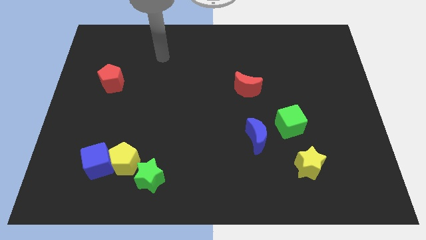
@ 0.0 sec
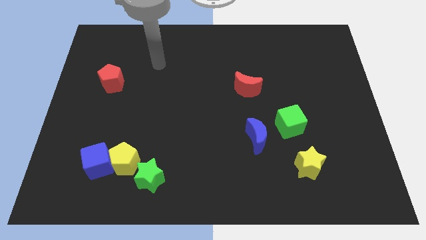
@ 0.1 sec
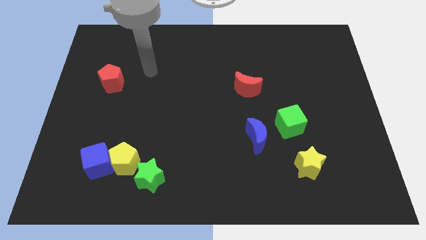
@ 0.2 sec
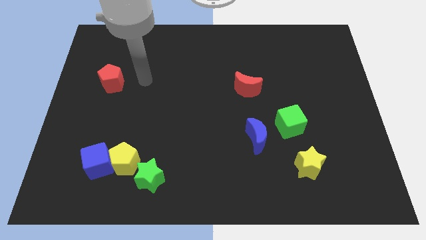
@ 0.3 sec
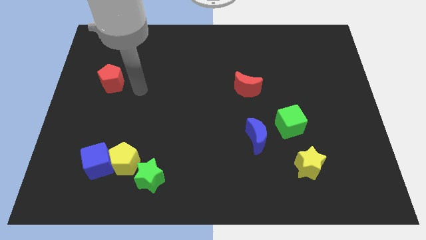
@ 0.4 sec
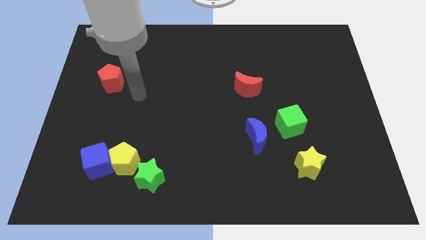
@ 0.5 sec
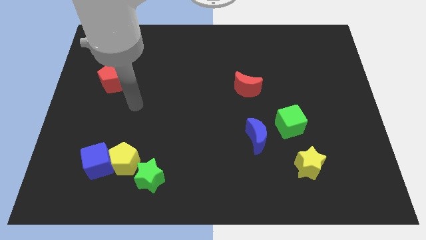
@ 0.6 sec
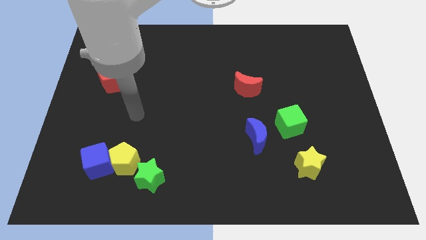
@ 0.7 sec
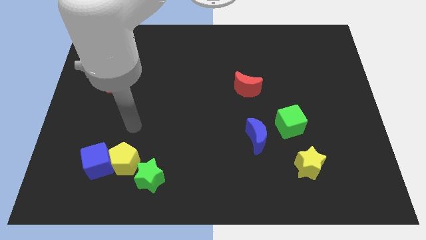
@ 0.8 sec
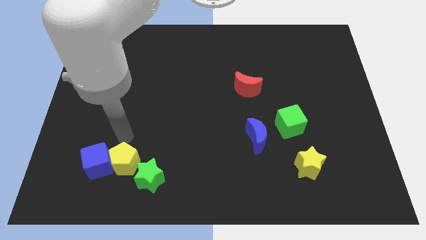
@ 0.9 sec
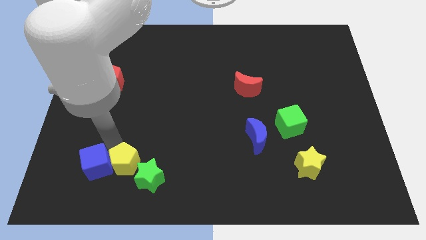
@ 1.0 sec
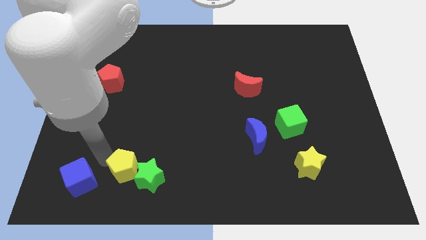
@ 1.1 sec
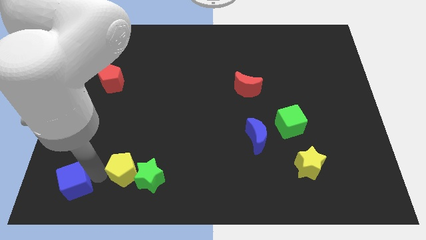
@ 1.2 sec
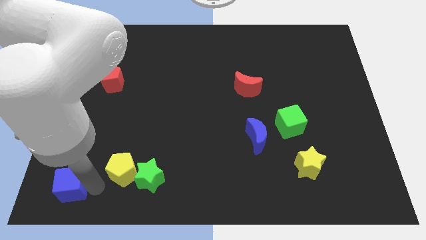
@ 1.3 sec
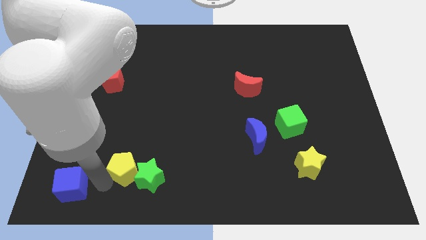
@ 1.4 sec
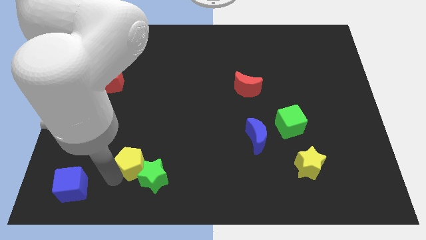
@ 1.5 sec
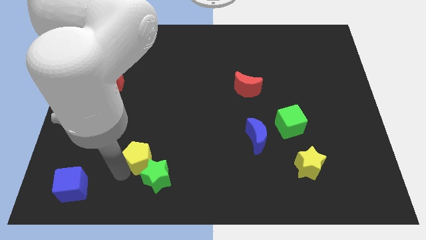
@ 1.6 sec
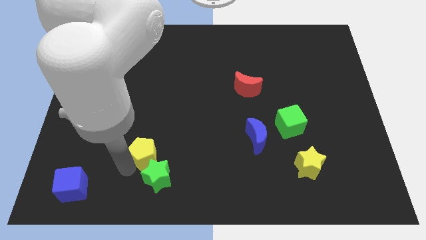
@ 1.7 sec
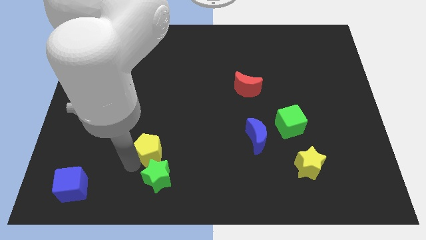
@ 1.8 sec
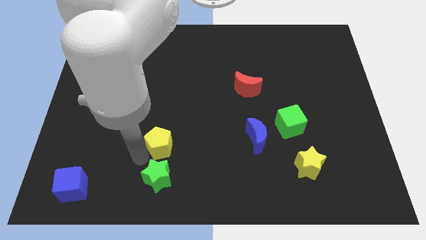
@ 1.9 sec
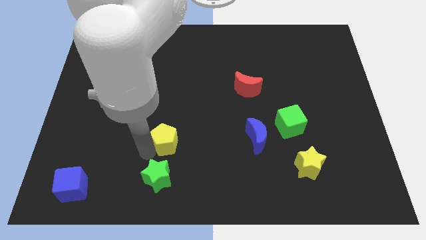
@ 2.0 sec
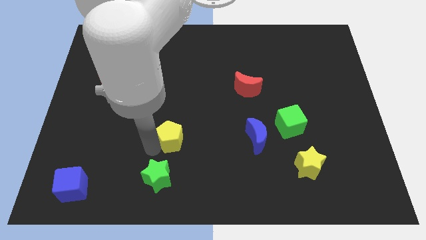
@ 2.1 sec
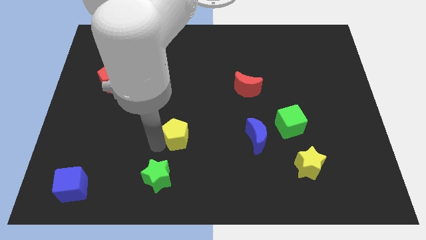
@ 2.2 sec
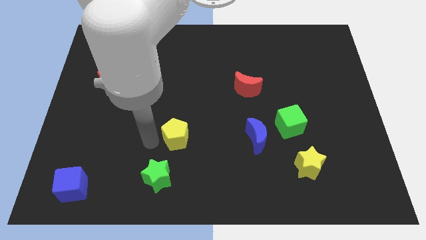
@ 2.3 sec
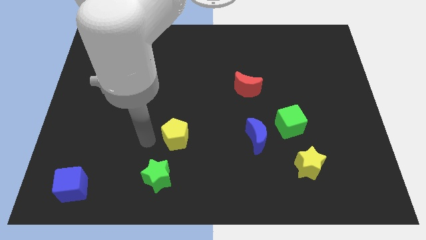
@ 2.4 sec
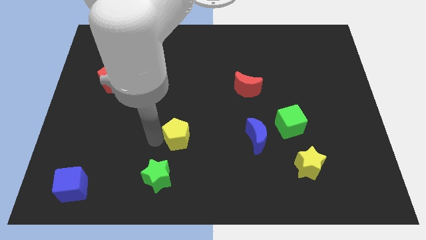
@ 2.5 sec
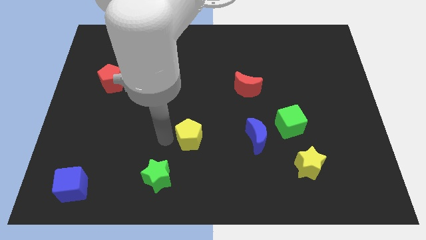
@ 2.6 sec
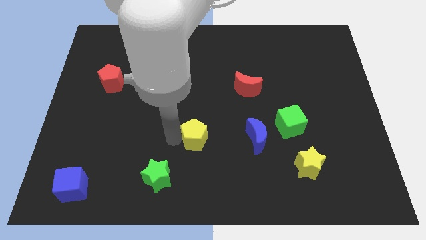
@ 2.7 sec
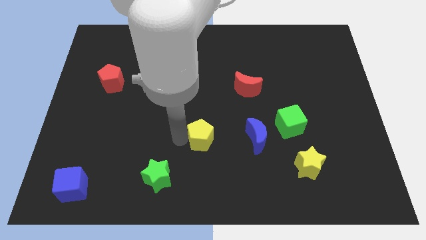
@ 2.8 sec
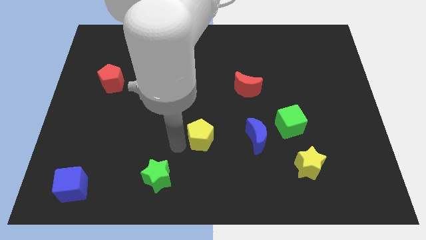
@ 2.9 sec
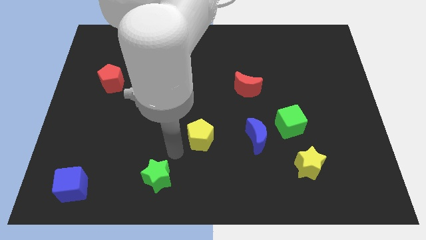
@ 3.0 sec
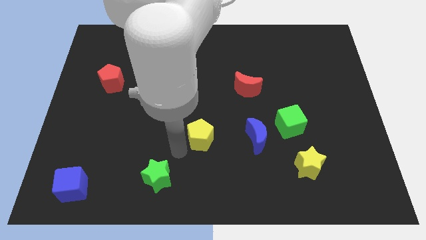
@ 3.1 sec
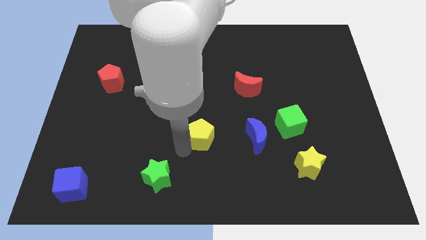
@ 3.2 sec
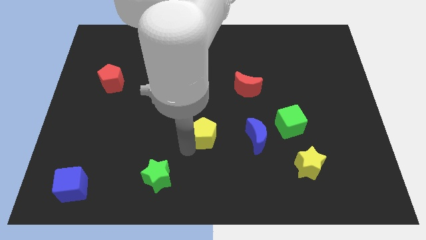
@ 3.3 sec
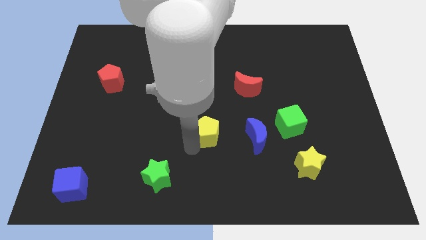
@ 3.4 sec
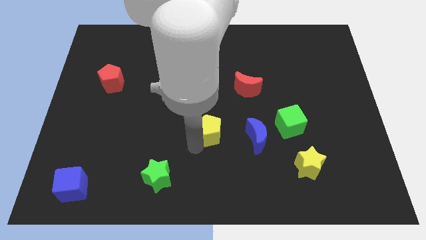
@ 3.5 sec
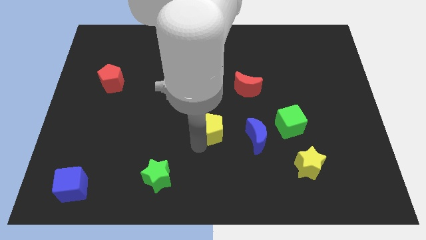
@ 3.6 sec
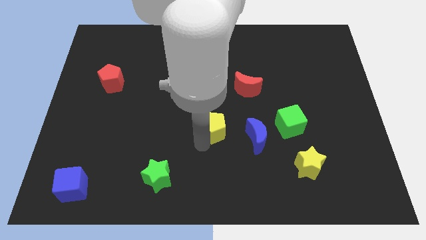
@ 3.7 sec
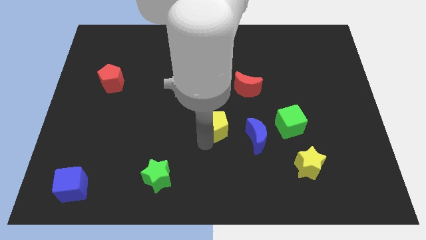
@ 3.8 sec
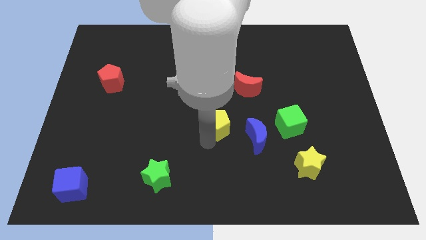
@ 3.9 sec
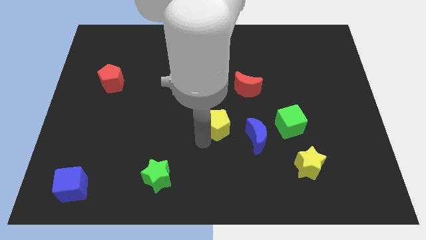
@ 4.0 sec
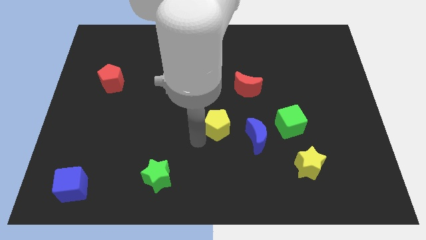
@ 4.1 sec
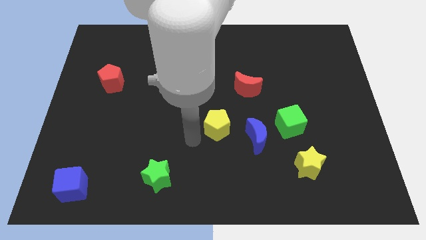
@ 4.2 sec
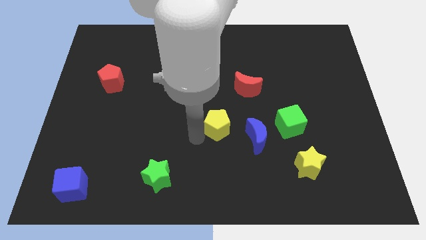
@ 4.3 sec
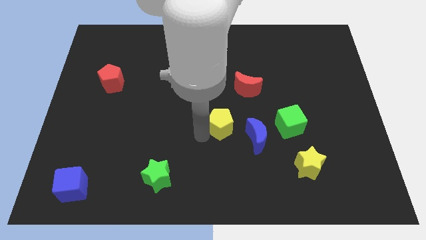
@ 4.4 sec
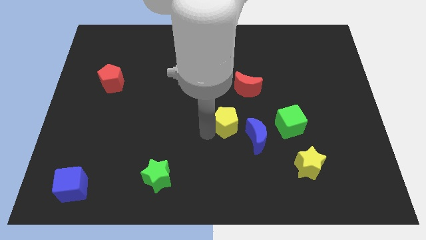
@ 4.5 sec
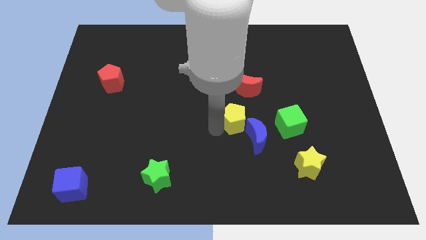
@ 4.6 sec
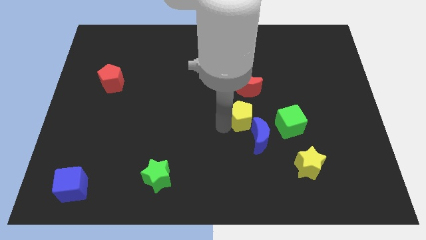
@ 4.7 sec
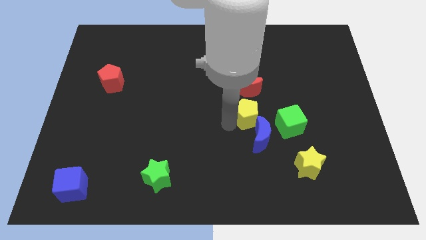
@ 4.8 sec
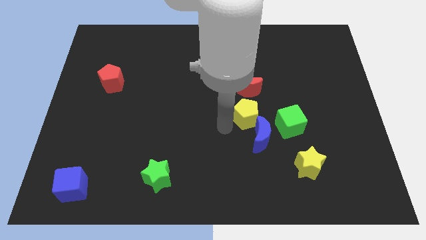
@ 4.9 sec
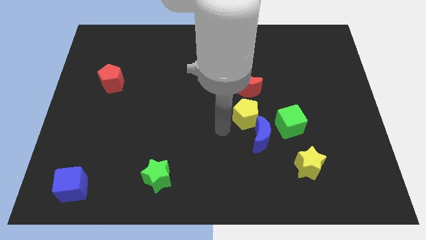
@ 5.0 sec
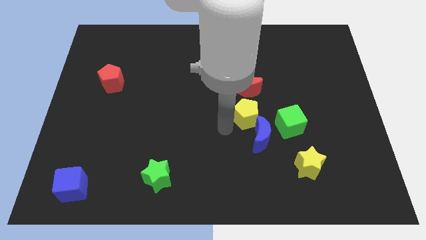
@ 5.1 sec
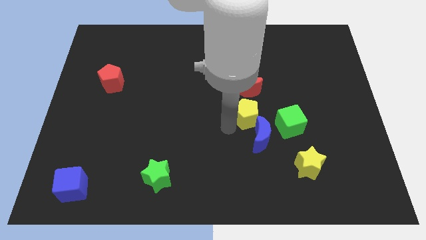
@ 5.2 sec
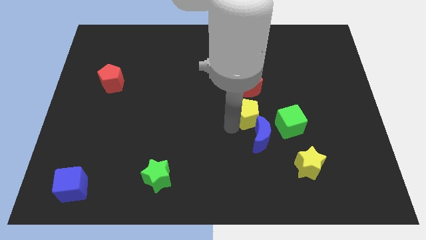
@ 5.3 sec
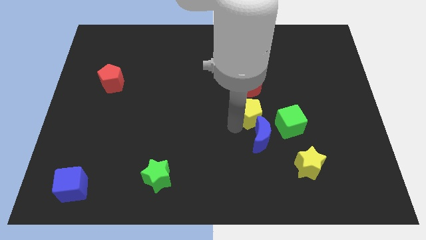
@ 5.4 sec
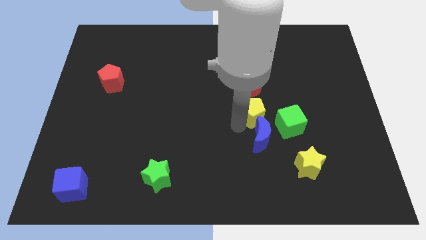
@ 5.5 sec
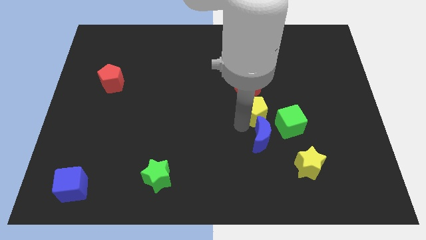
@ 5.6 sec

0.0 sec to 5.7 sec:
move the yellow pentagon to the bottom right side of the red moon
